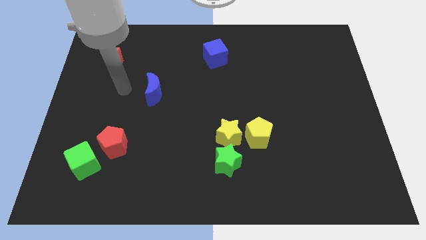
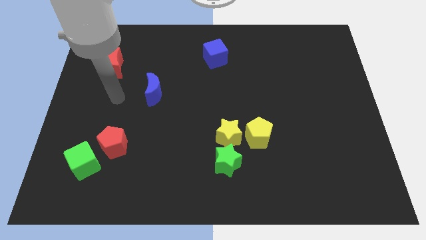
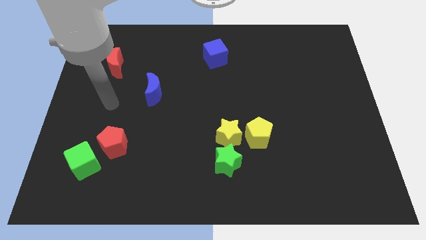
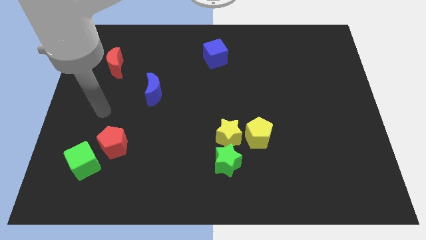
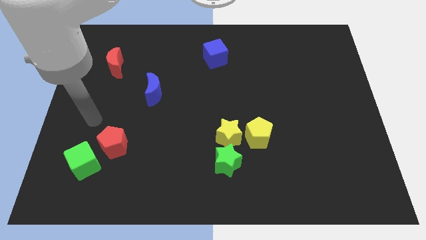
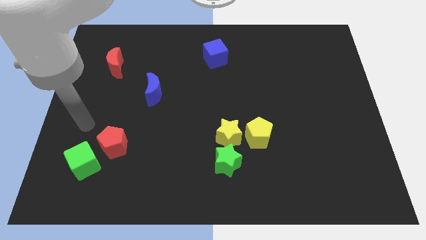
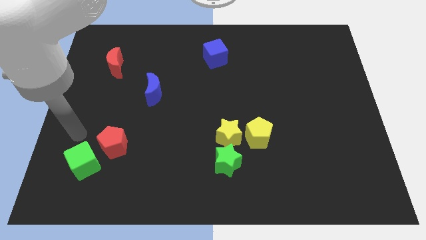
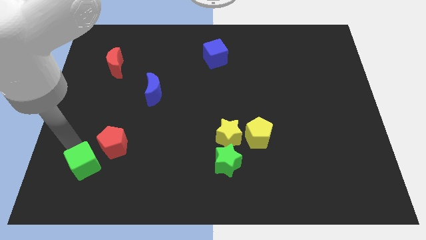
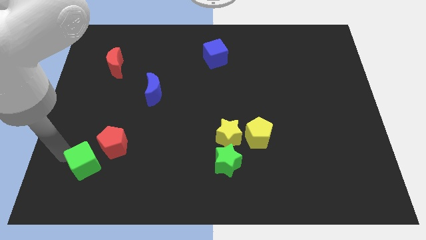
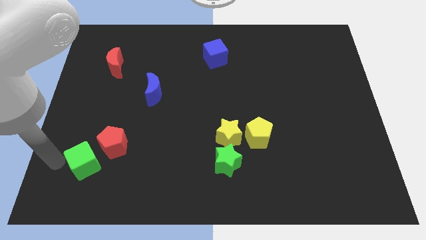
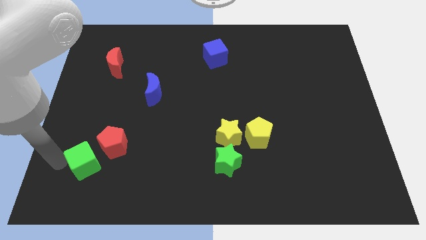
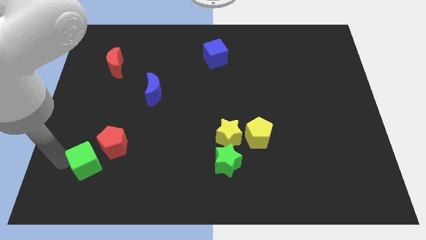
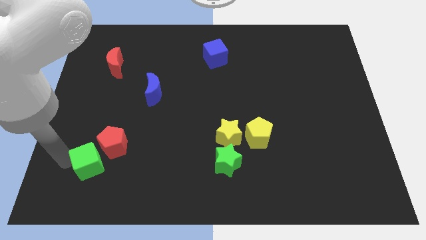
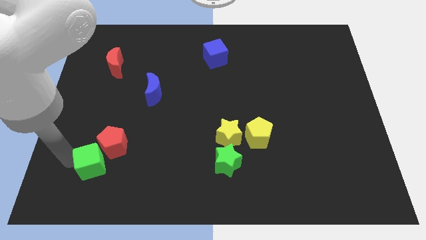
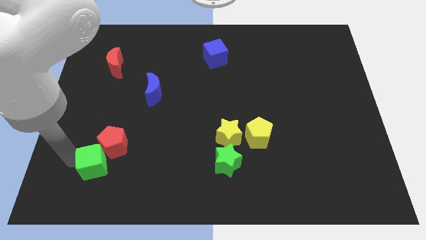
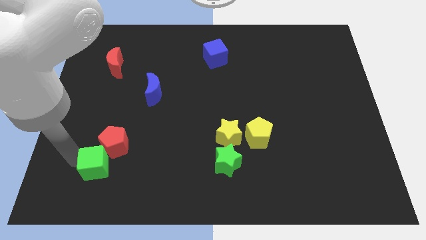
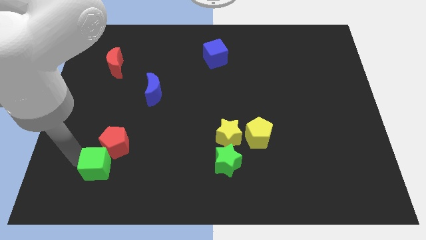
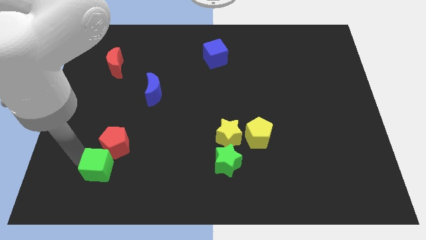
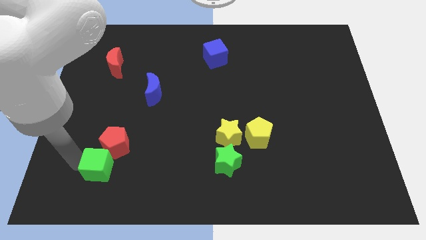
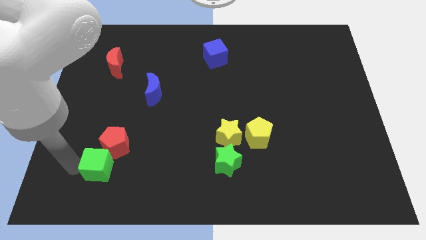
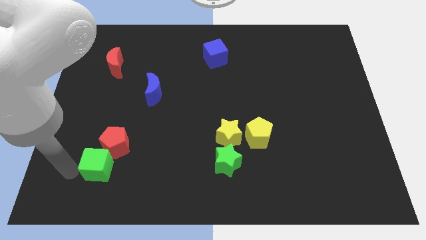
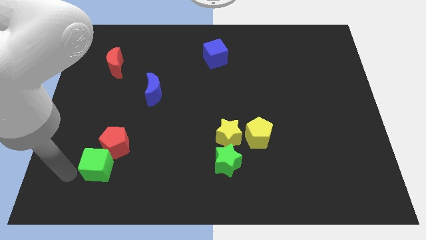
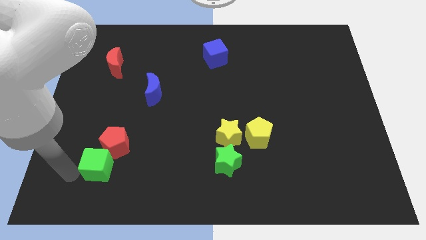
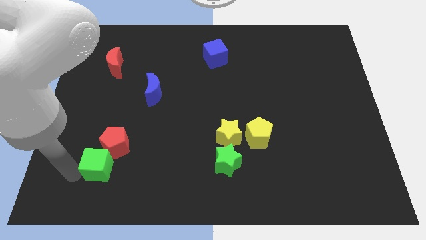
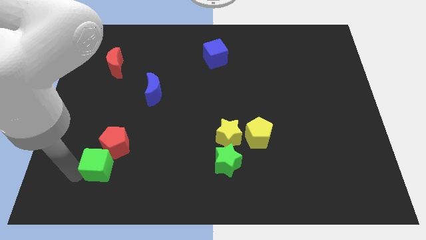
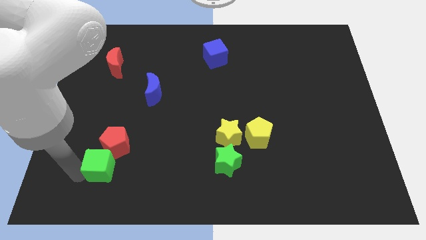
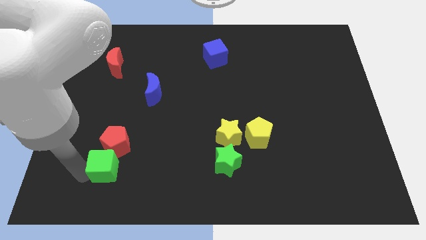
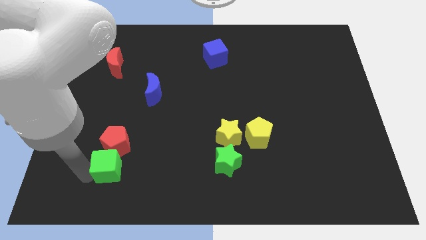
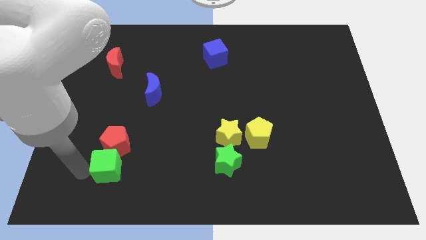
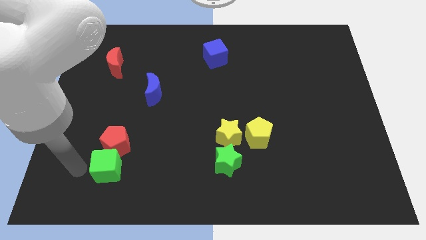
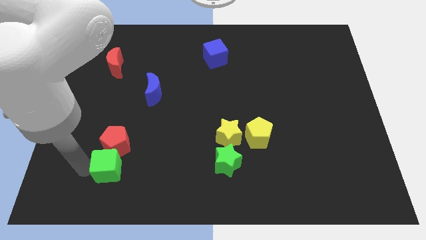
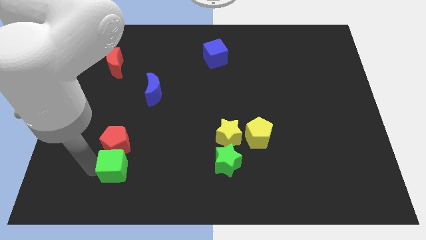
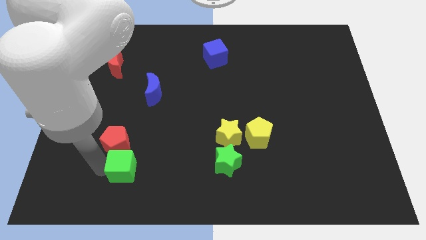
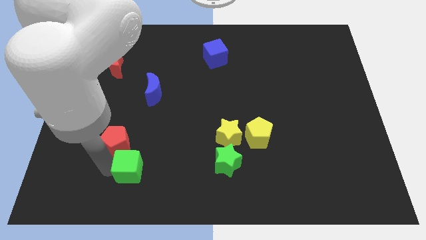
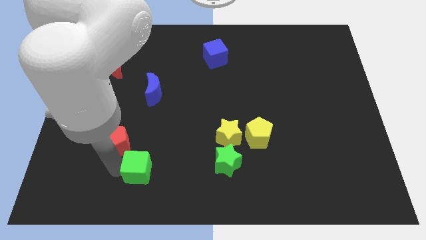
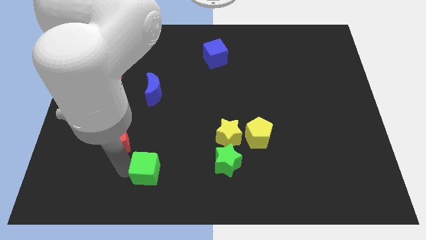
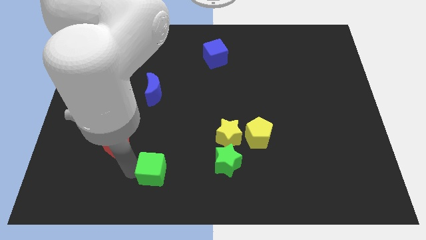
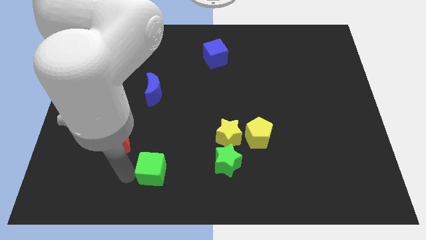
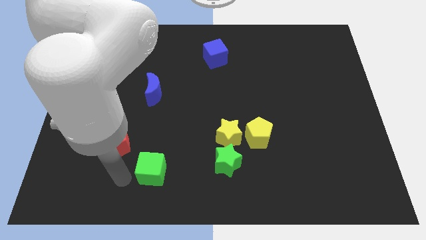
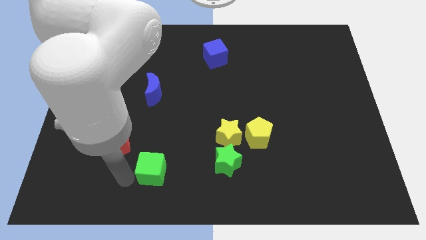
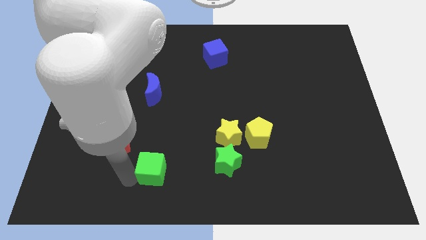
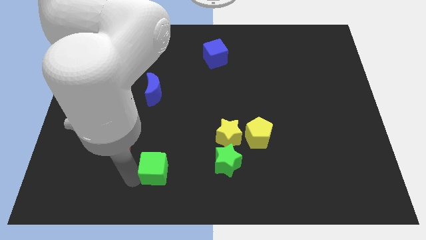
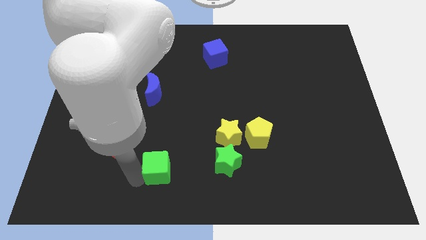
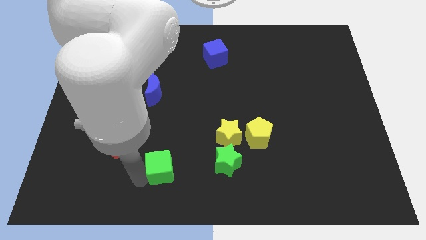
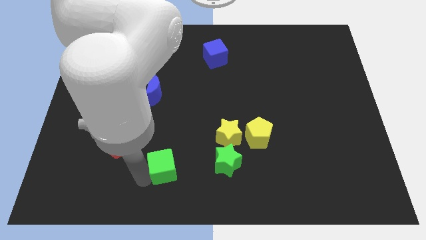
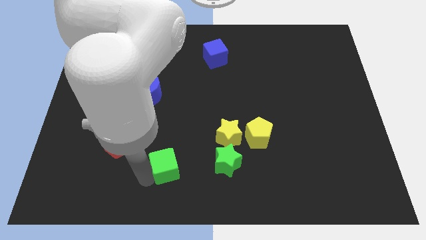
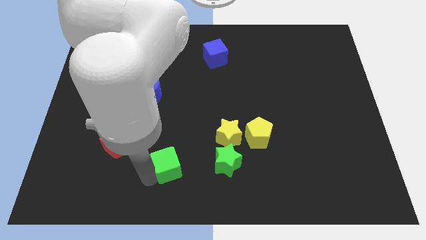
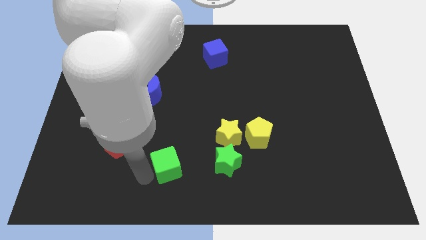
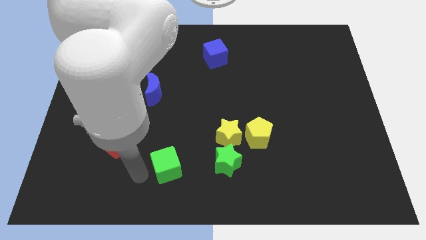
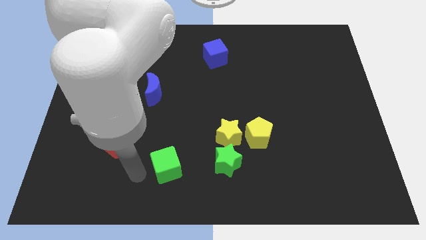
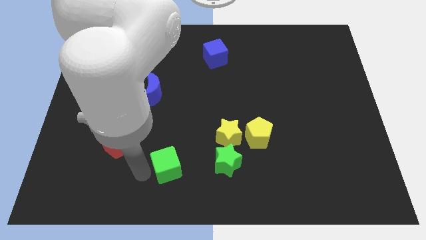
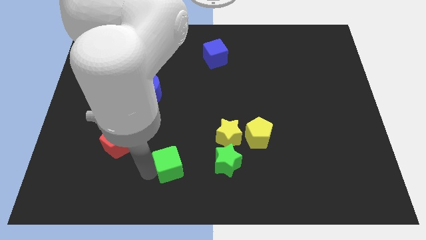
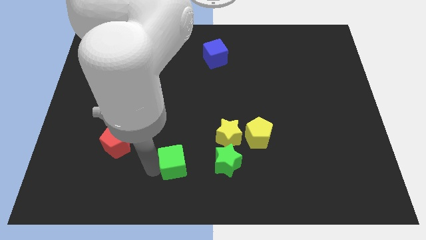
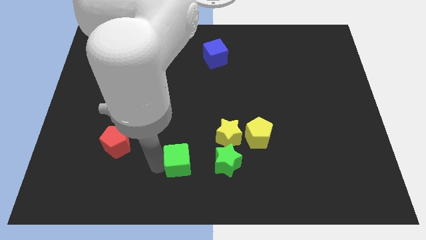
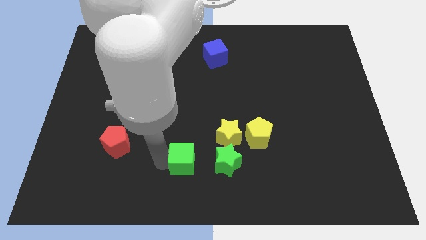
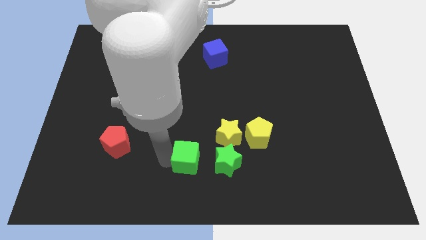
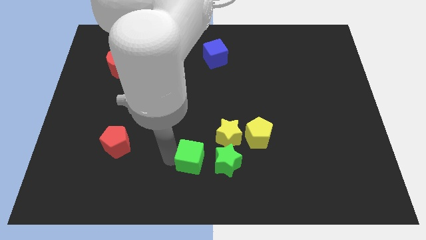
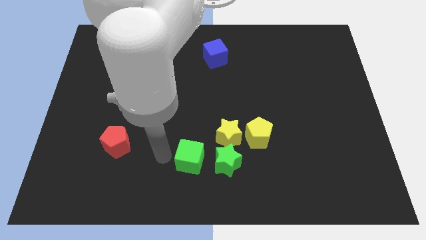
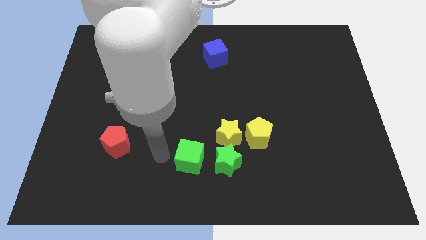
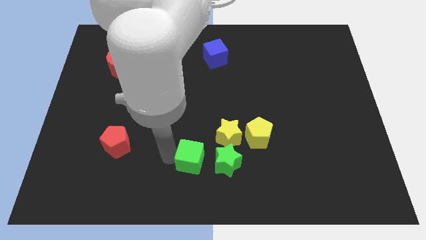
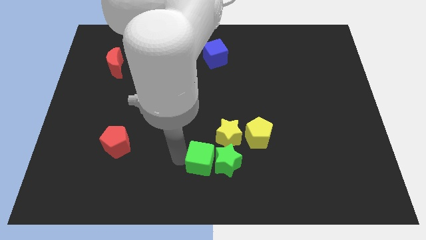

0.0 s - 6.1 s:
push the green cube next to the green star

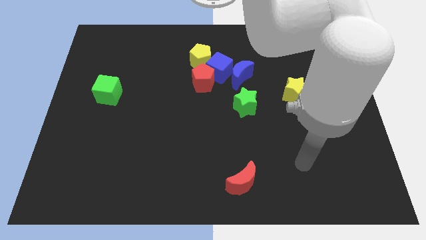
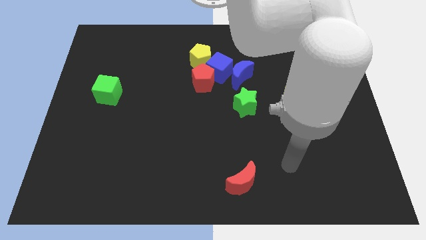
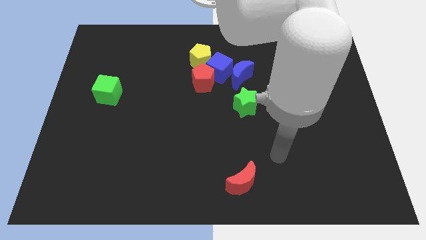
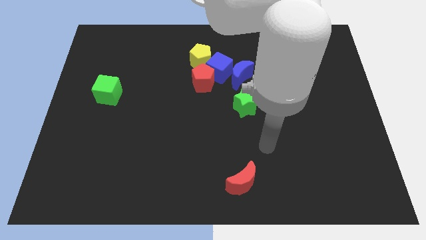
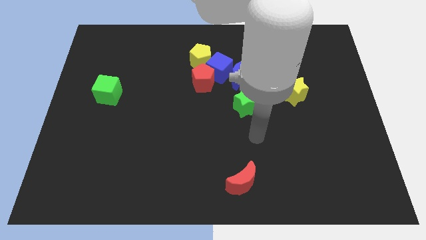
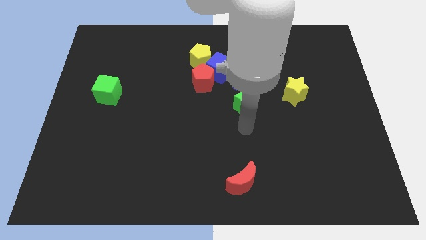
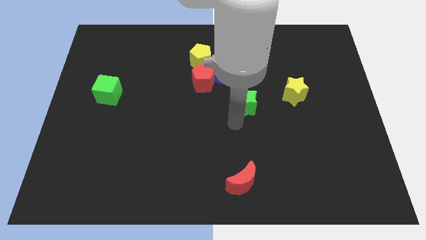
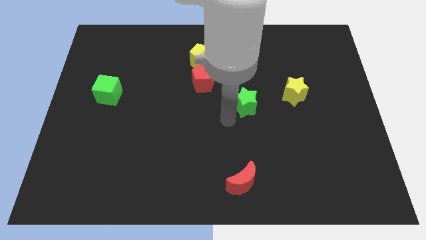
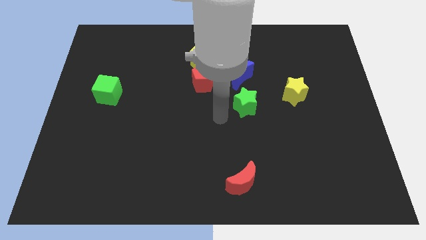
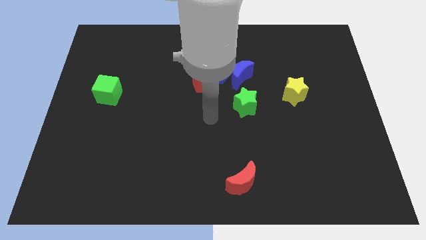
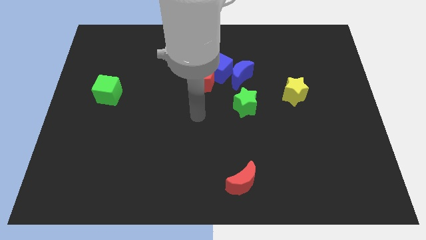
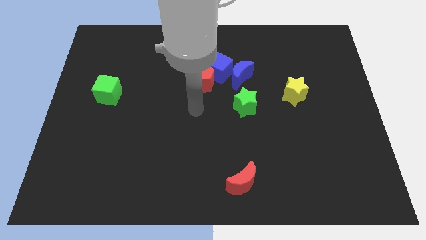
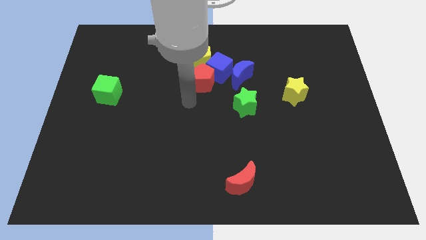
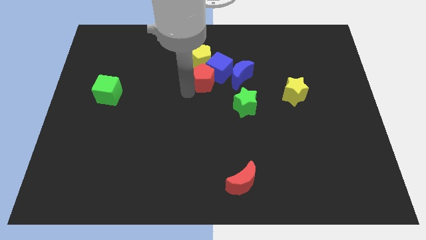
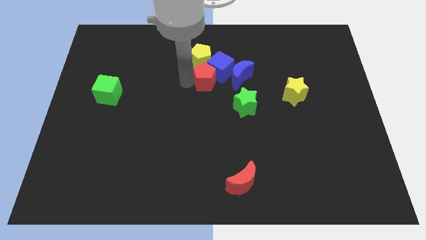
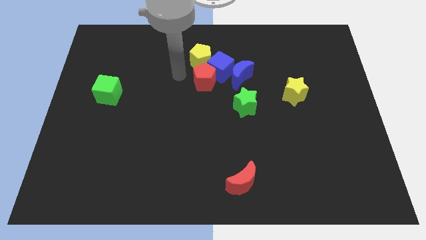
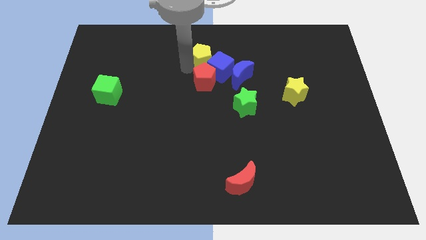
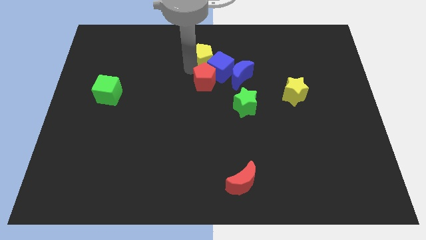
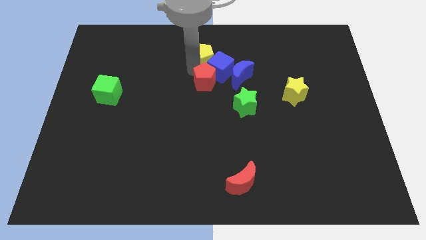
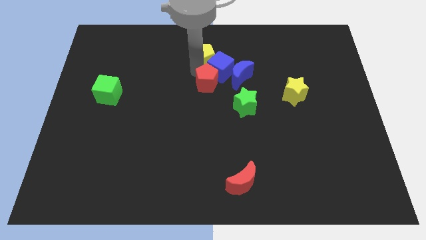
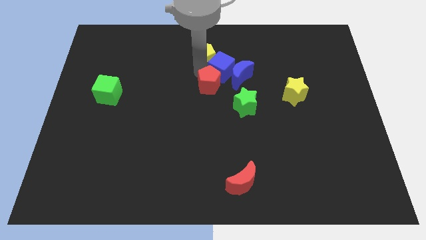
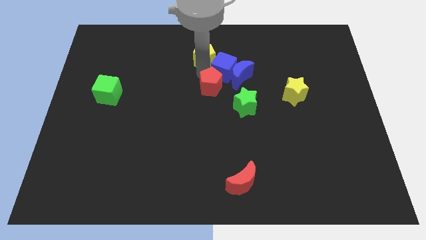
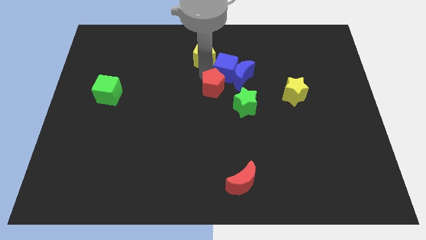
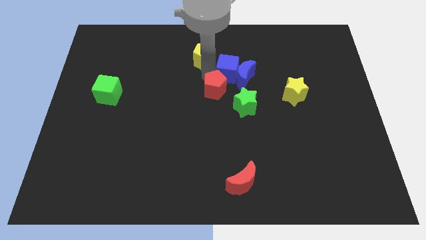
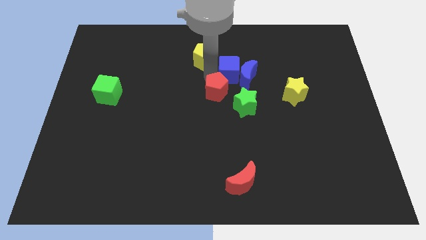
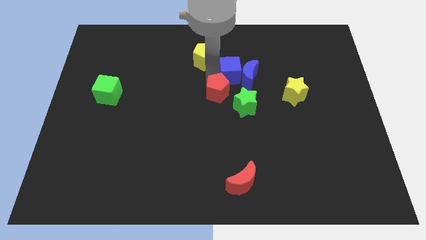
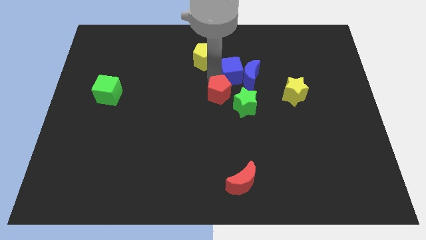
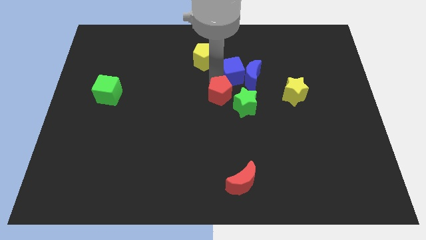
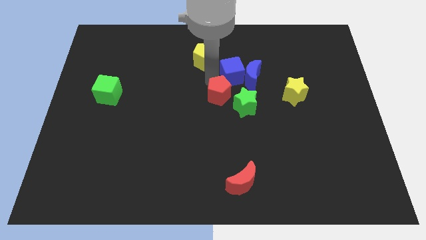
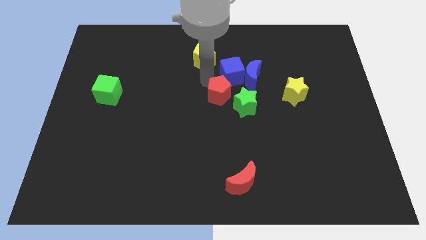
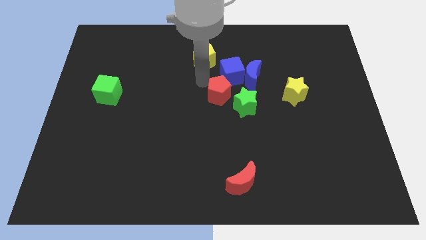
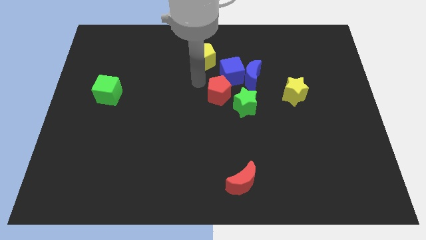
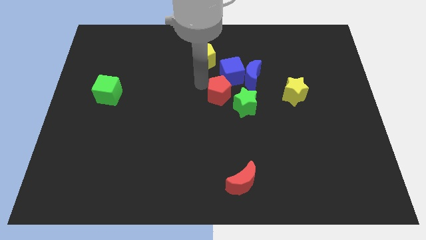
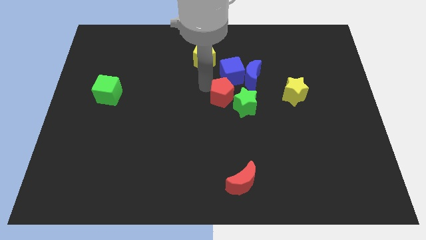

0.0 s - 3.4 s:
push the red pentagon next to the green star
